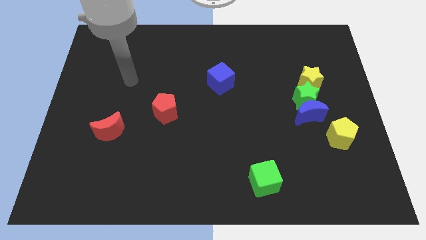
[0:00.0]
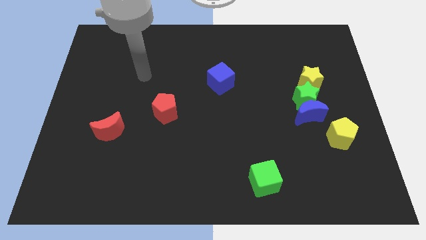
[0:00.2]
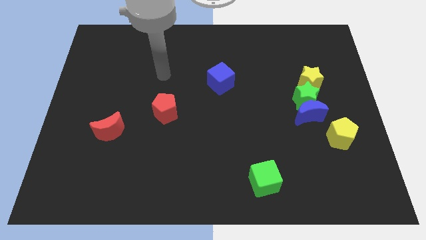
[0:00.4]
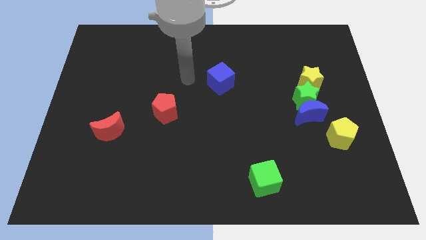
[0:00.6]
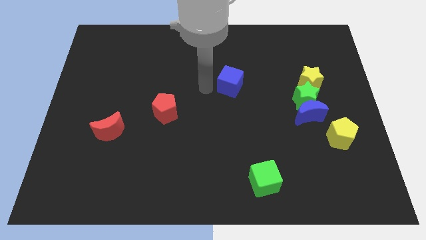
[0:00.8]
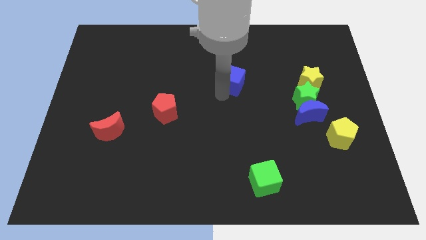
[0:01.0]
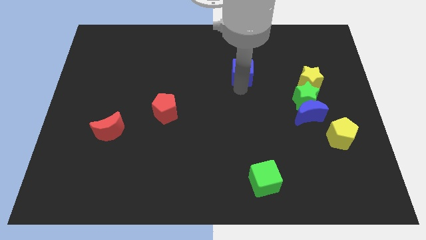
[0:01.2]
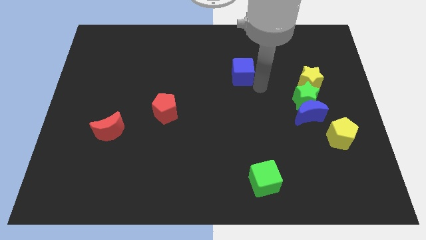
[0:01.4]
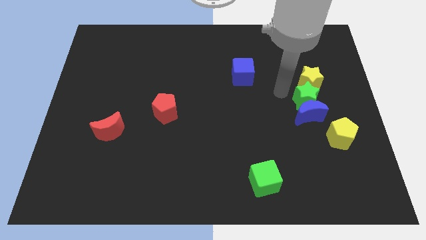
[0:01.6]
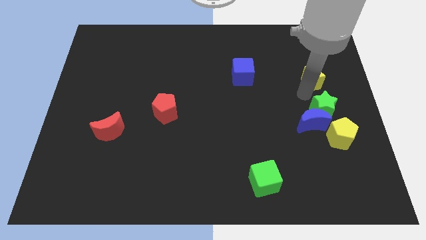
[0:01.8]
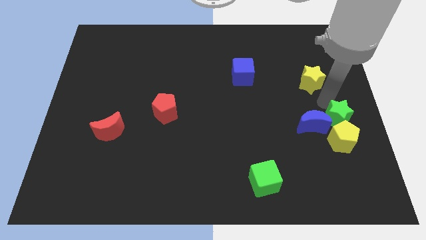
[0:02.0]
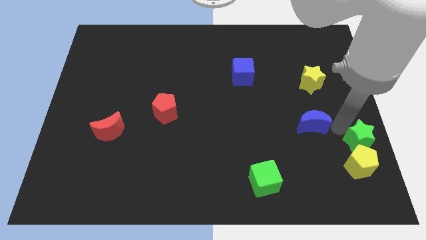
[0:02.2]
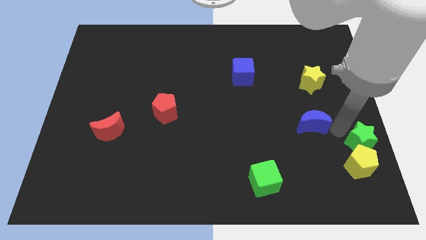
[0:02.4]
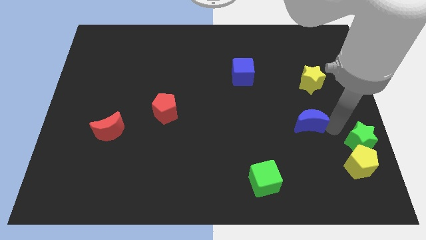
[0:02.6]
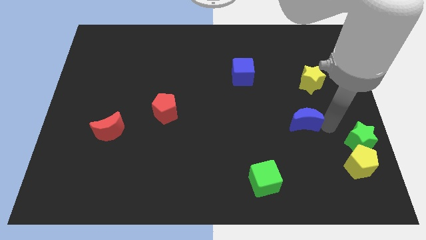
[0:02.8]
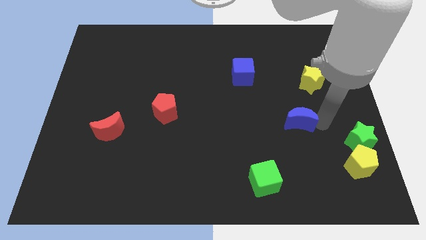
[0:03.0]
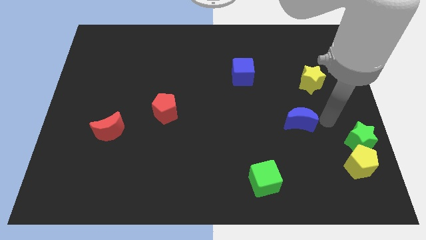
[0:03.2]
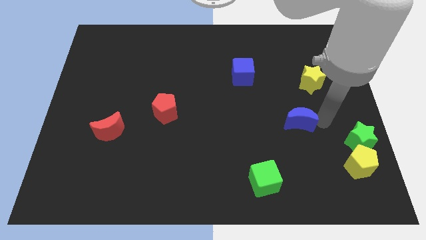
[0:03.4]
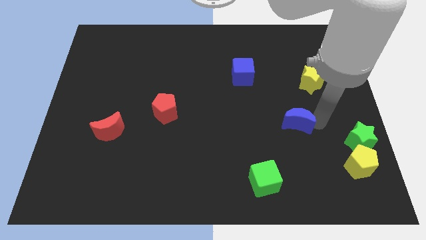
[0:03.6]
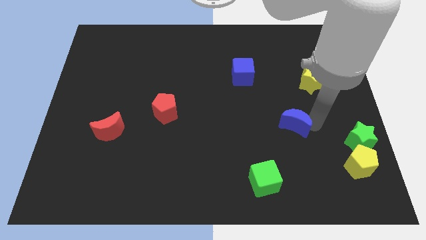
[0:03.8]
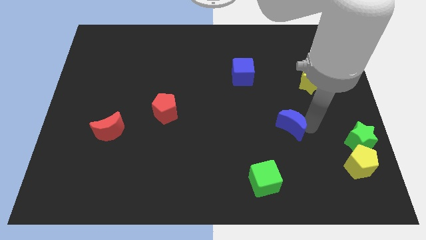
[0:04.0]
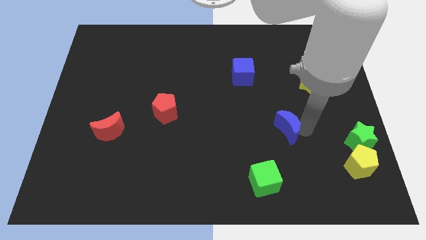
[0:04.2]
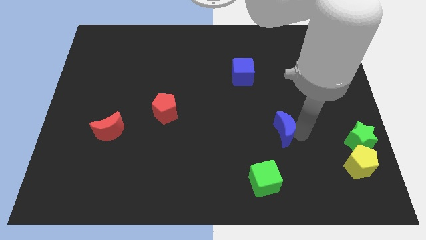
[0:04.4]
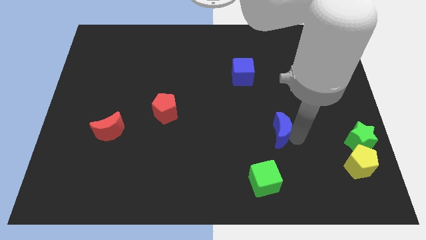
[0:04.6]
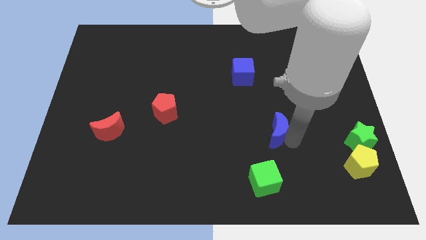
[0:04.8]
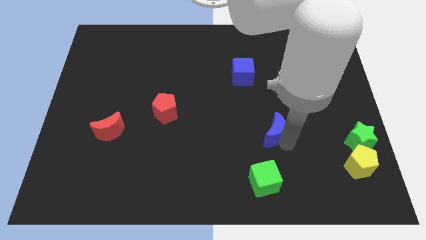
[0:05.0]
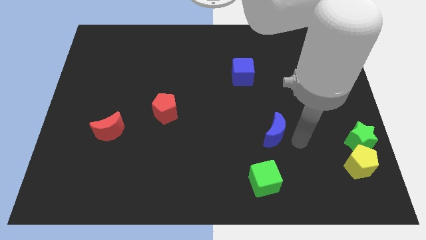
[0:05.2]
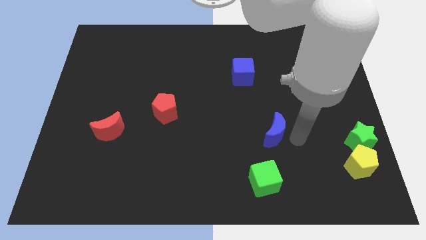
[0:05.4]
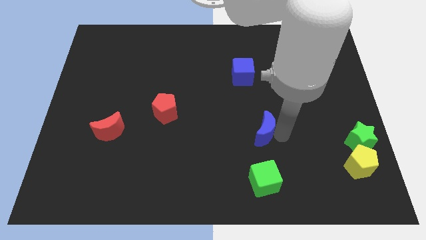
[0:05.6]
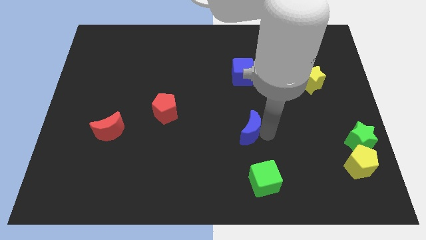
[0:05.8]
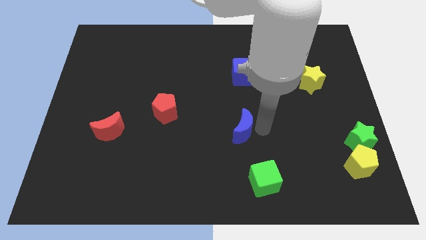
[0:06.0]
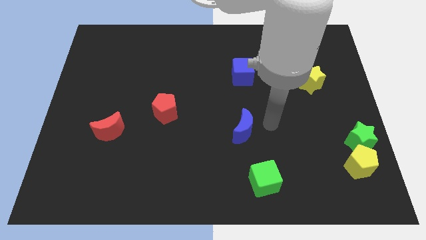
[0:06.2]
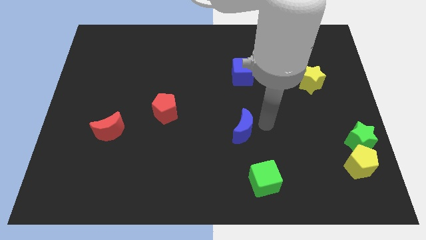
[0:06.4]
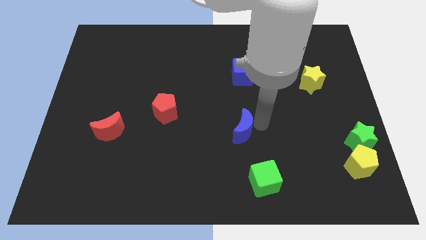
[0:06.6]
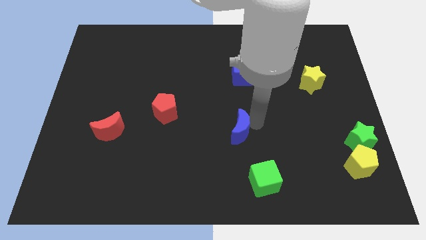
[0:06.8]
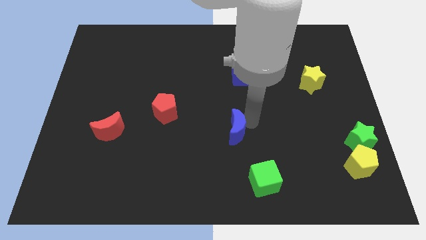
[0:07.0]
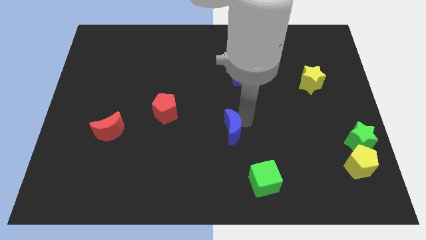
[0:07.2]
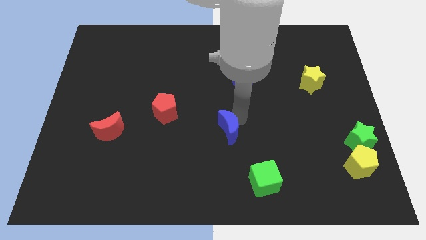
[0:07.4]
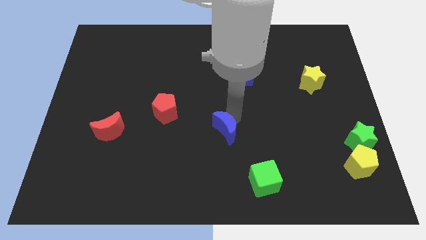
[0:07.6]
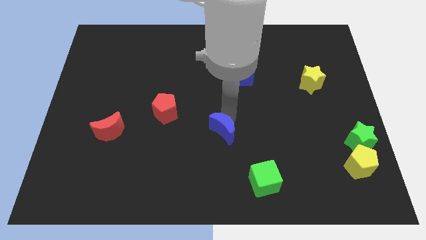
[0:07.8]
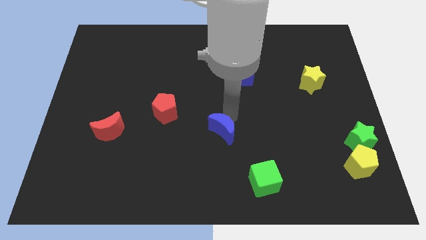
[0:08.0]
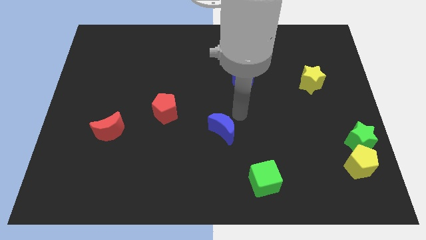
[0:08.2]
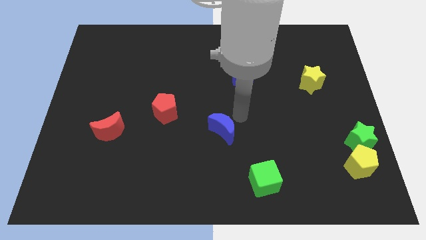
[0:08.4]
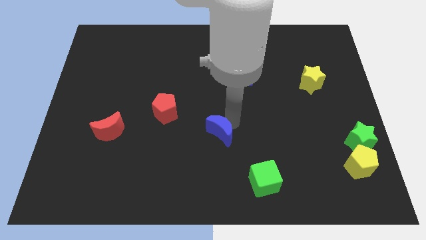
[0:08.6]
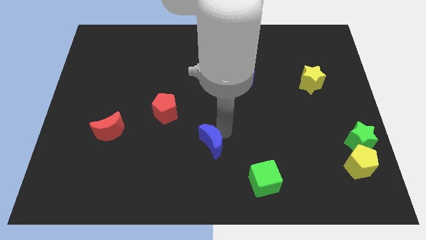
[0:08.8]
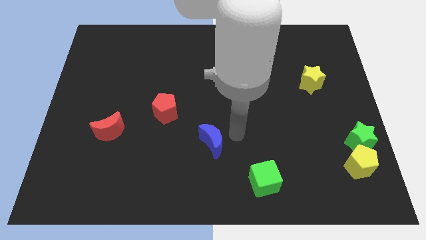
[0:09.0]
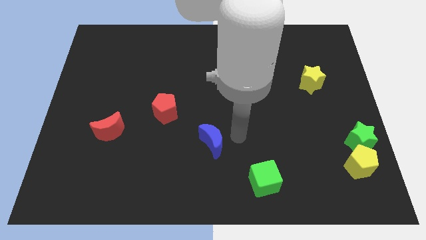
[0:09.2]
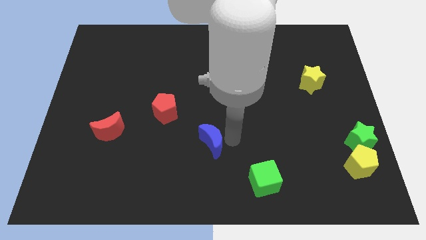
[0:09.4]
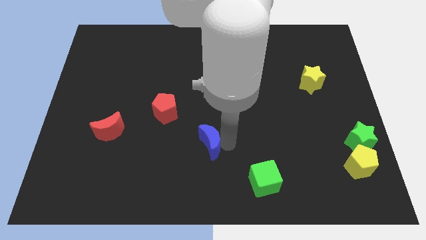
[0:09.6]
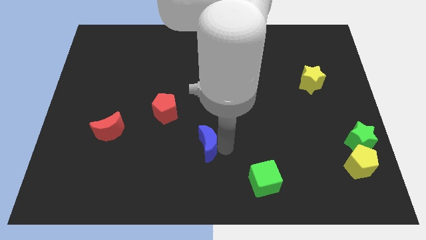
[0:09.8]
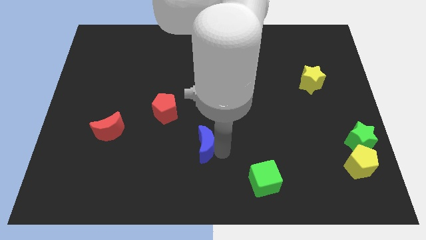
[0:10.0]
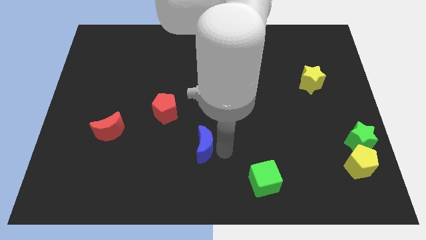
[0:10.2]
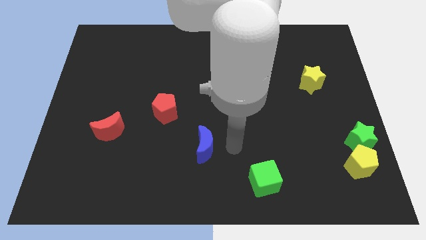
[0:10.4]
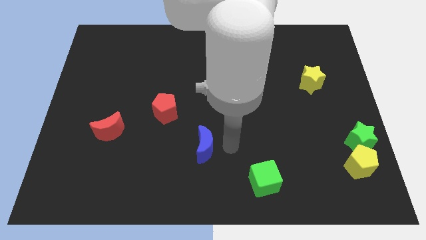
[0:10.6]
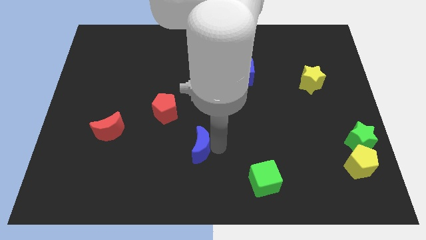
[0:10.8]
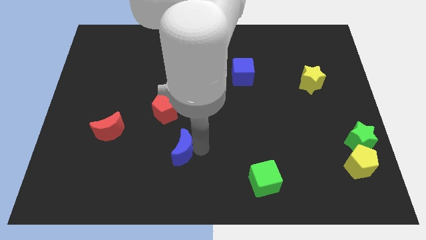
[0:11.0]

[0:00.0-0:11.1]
put the blue moon below the red pentagon

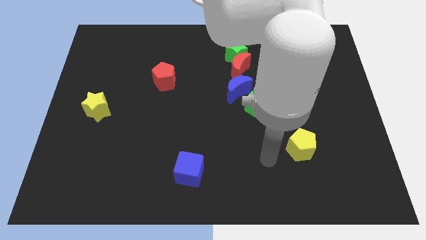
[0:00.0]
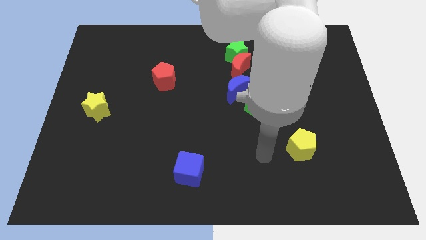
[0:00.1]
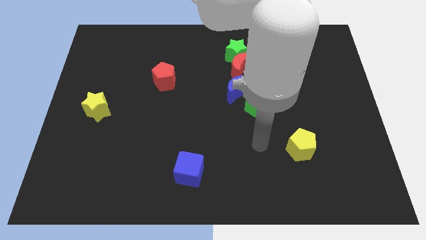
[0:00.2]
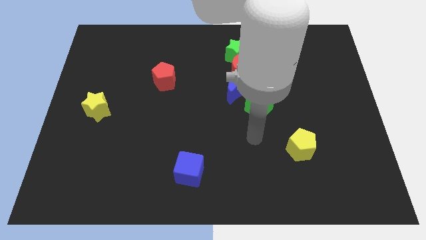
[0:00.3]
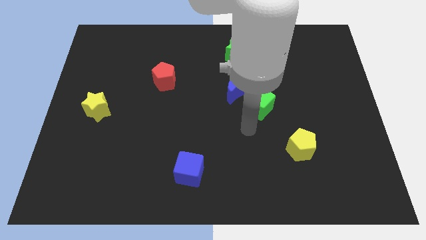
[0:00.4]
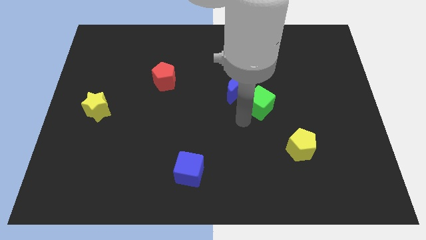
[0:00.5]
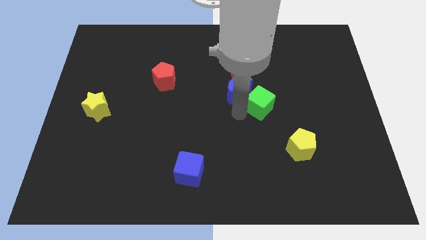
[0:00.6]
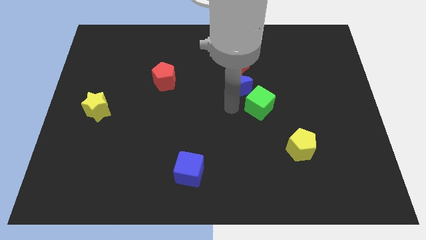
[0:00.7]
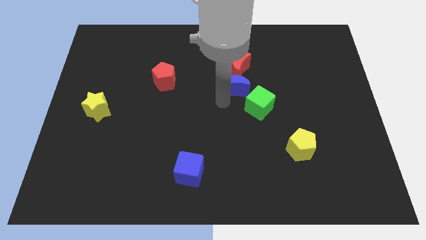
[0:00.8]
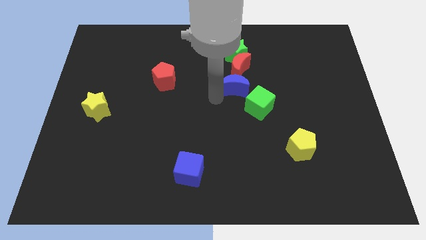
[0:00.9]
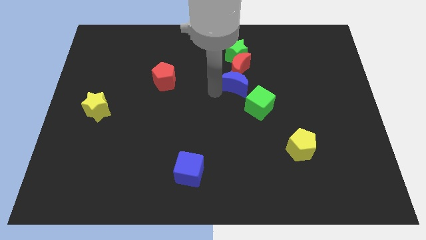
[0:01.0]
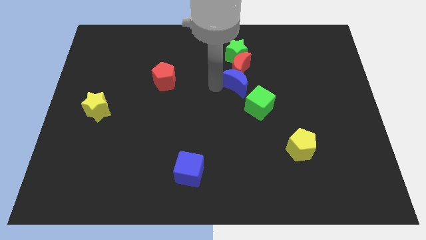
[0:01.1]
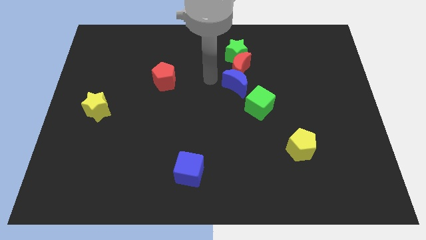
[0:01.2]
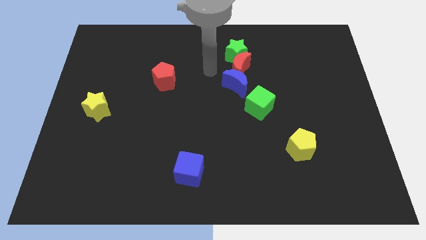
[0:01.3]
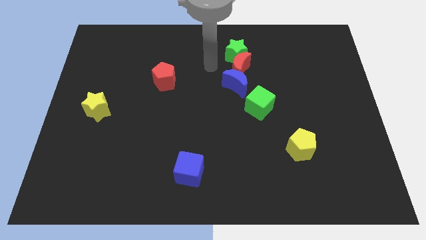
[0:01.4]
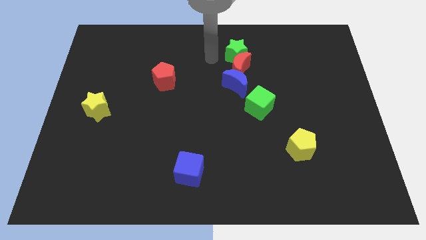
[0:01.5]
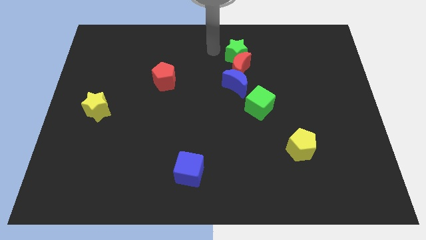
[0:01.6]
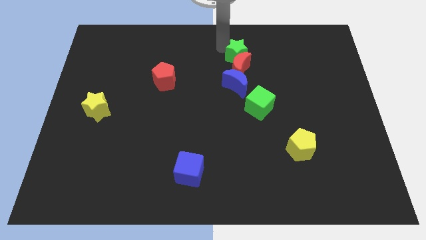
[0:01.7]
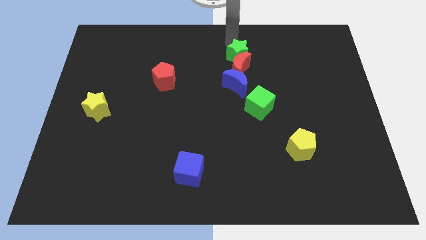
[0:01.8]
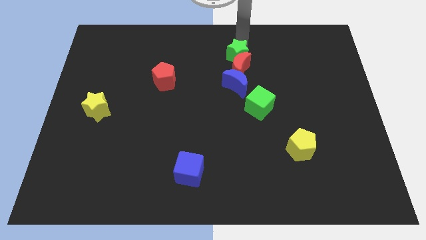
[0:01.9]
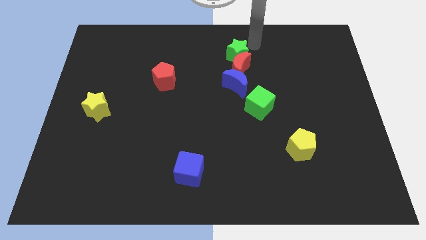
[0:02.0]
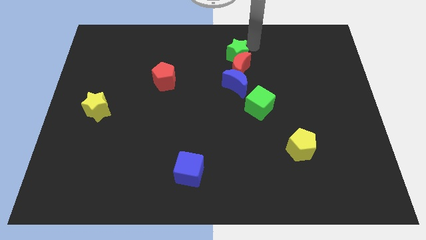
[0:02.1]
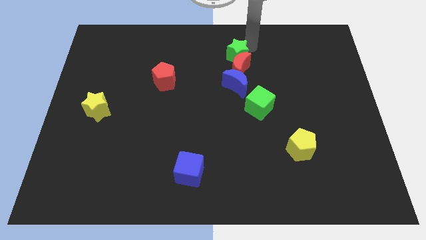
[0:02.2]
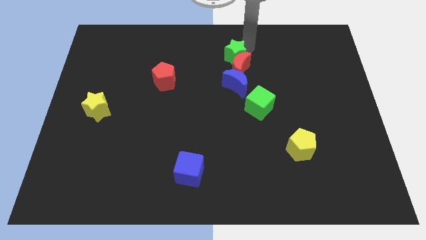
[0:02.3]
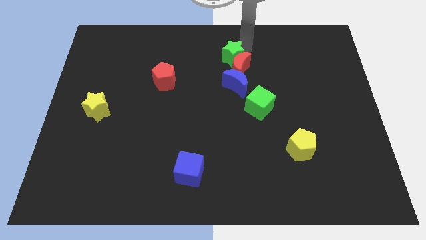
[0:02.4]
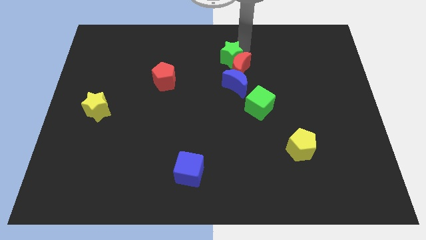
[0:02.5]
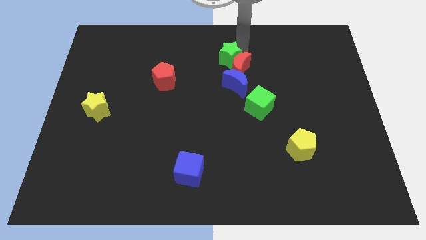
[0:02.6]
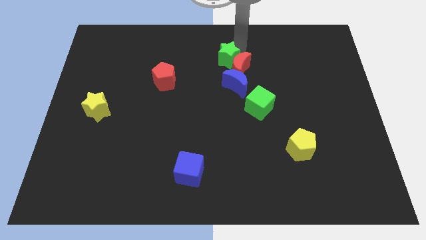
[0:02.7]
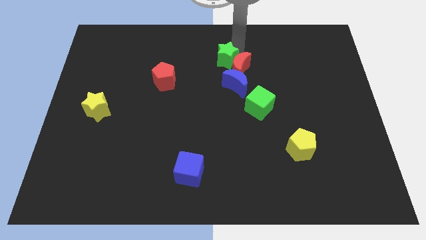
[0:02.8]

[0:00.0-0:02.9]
move the green star to the top left of the blue moon
